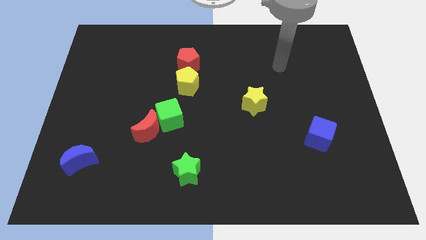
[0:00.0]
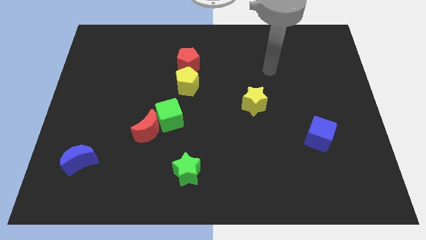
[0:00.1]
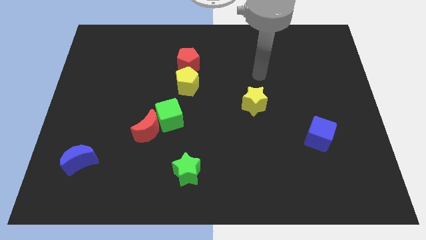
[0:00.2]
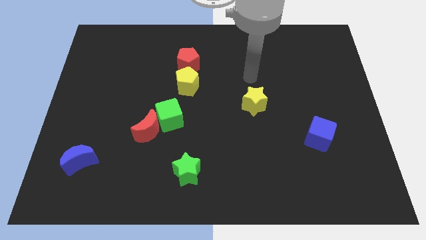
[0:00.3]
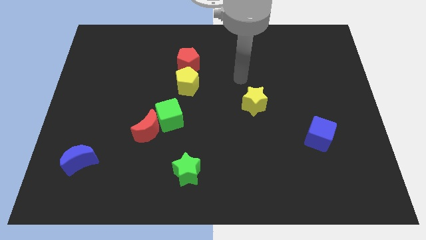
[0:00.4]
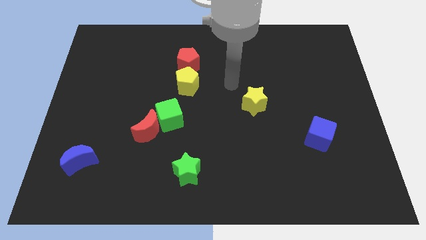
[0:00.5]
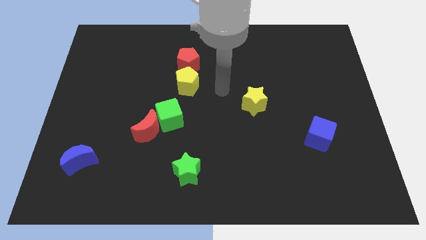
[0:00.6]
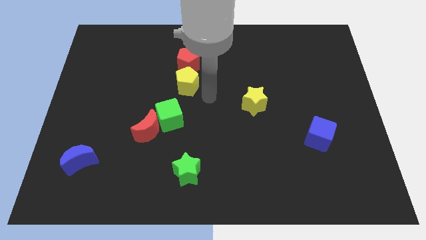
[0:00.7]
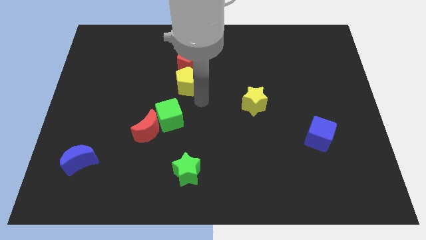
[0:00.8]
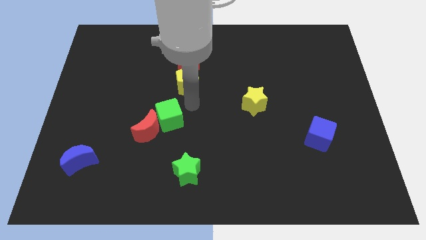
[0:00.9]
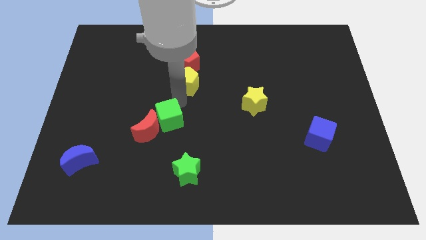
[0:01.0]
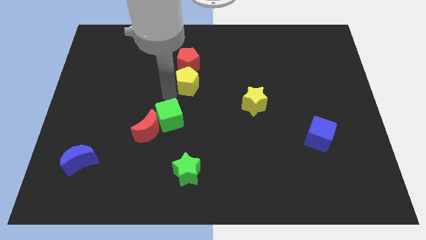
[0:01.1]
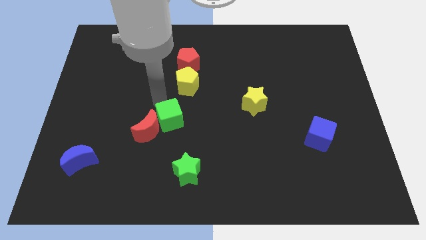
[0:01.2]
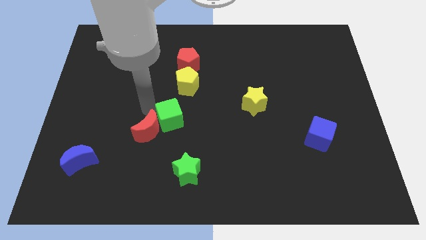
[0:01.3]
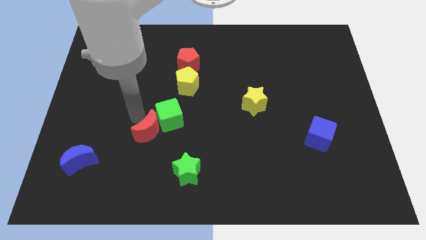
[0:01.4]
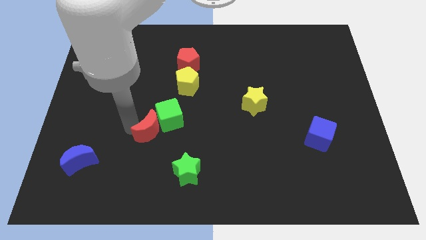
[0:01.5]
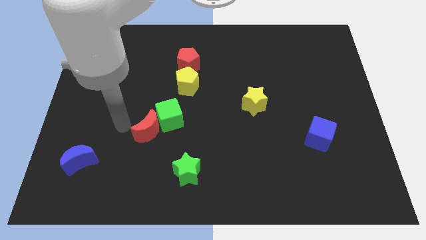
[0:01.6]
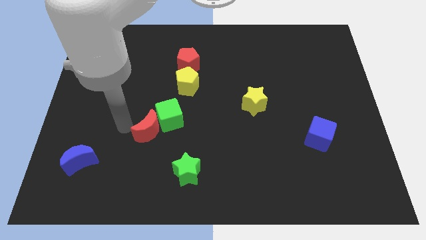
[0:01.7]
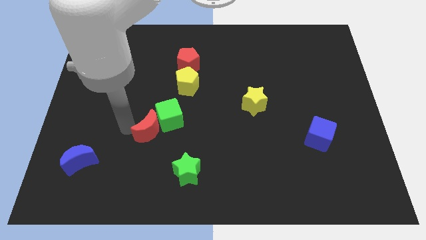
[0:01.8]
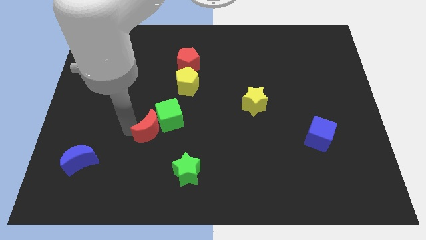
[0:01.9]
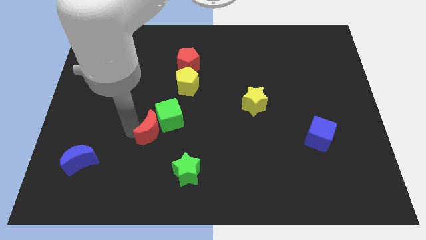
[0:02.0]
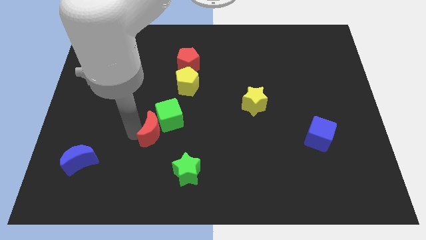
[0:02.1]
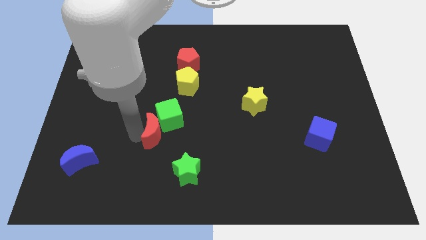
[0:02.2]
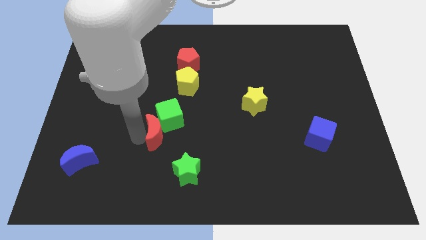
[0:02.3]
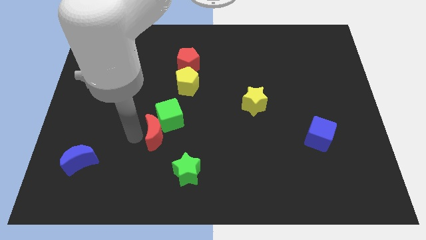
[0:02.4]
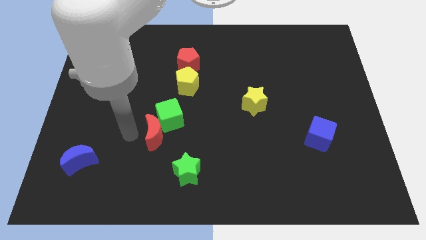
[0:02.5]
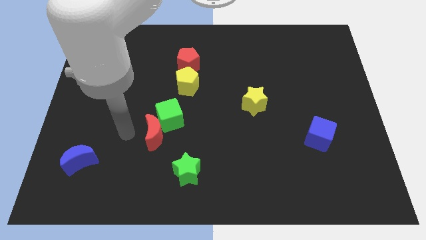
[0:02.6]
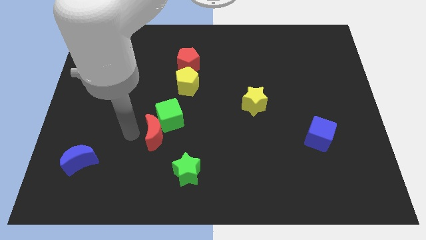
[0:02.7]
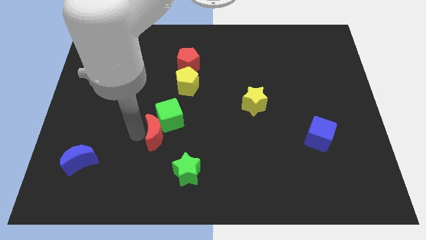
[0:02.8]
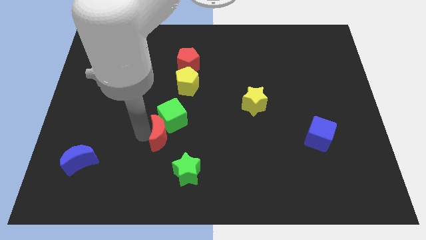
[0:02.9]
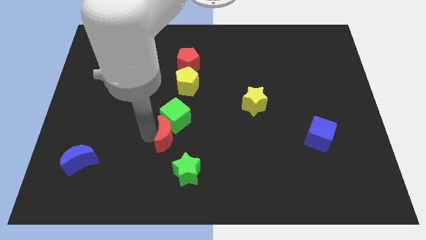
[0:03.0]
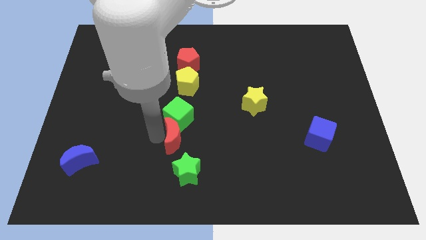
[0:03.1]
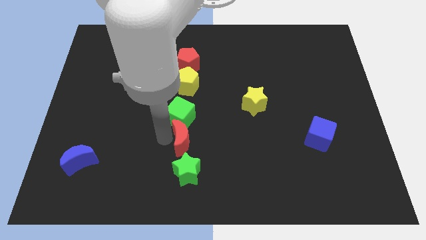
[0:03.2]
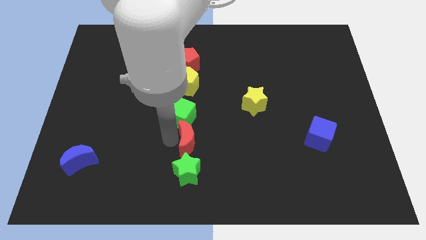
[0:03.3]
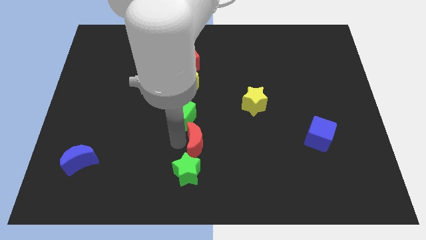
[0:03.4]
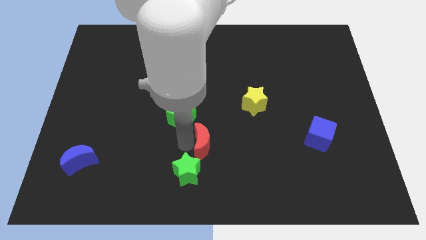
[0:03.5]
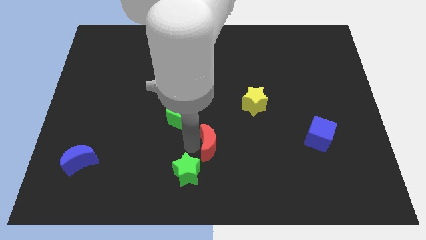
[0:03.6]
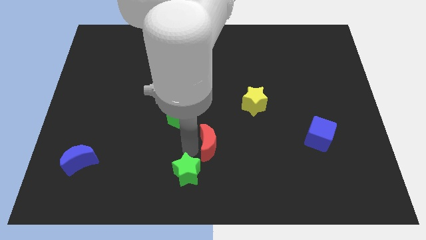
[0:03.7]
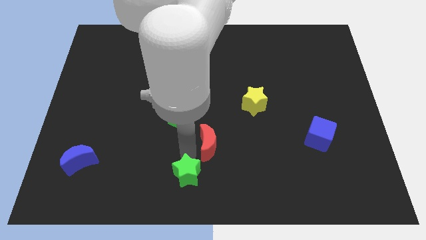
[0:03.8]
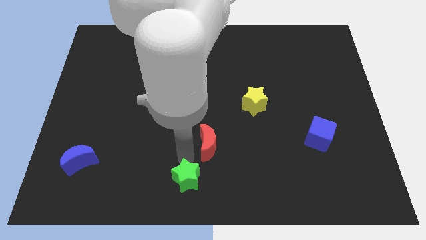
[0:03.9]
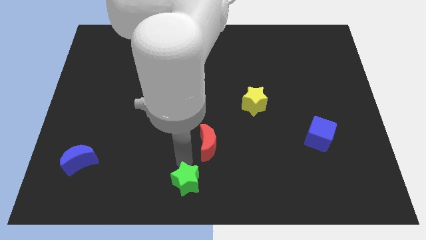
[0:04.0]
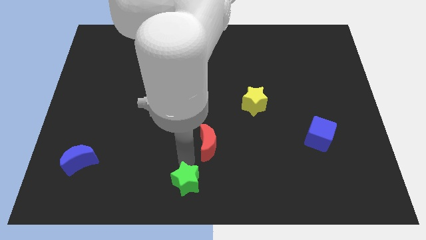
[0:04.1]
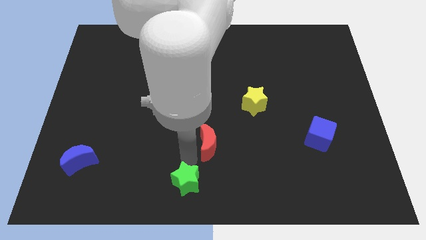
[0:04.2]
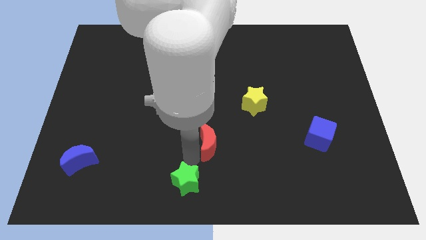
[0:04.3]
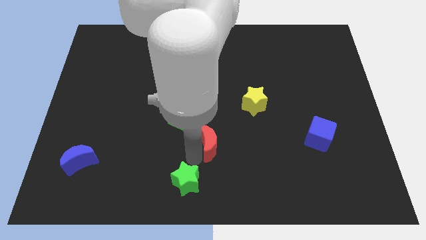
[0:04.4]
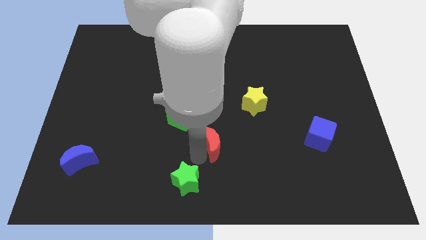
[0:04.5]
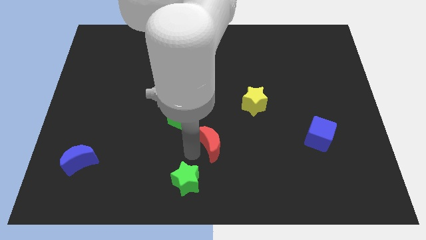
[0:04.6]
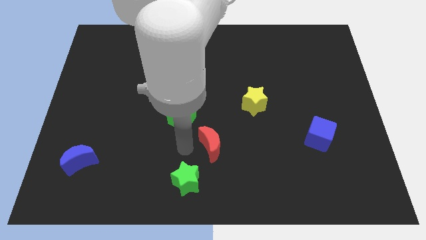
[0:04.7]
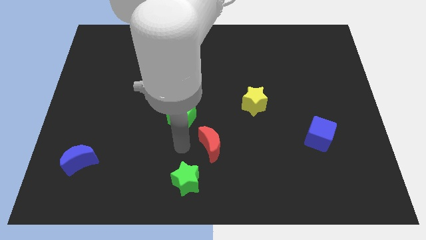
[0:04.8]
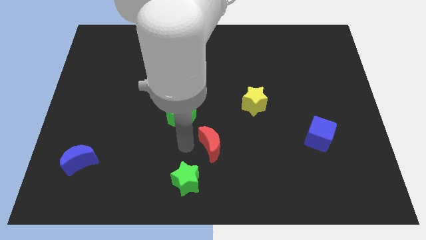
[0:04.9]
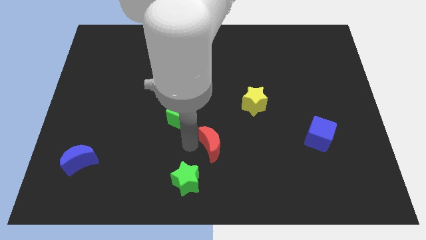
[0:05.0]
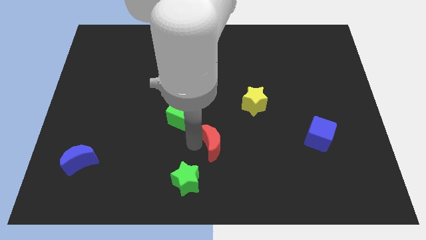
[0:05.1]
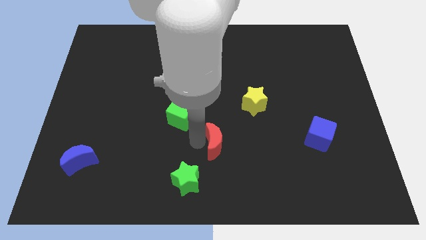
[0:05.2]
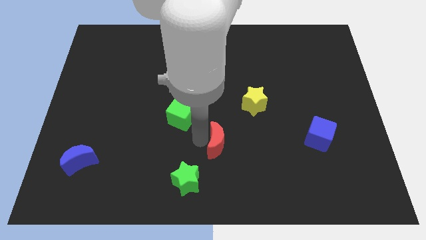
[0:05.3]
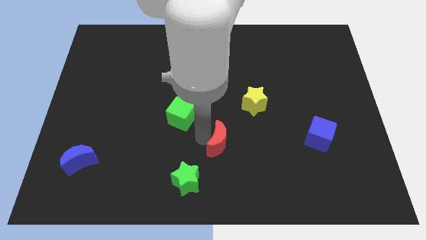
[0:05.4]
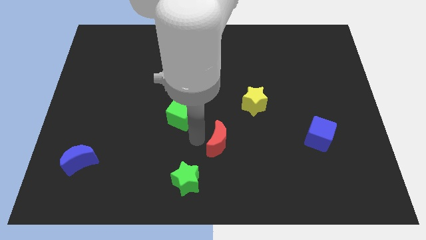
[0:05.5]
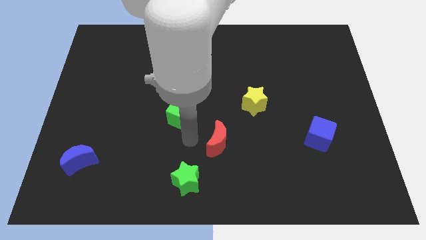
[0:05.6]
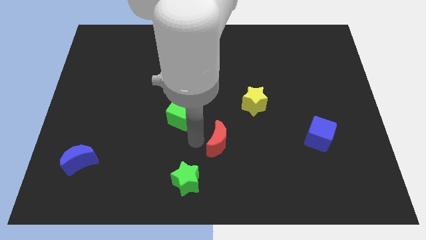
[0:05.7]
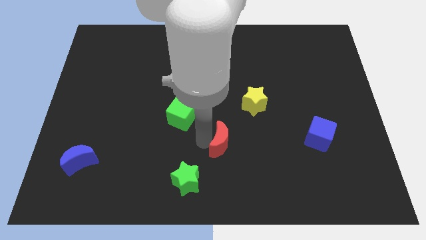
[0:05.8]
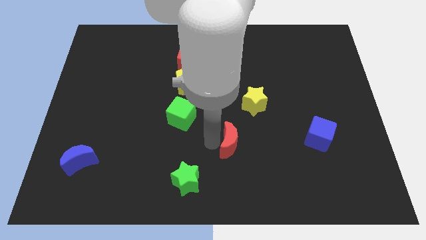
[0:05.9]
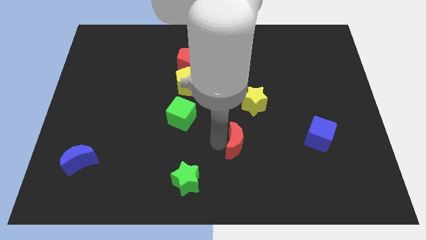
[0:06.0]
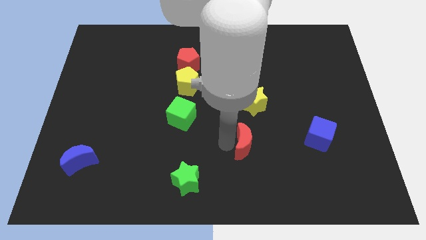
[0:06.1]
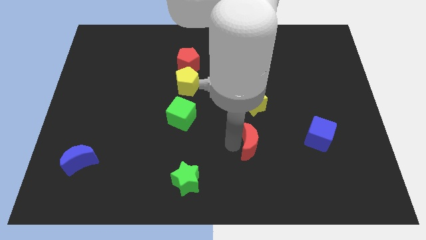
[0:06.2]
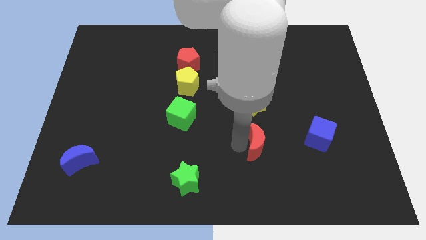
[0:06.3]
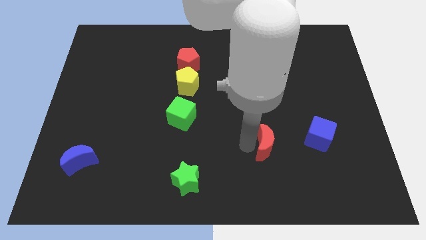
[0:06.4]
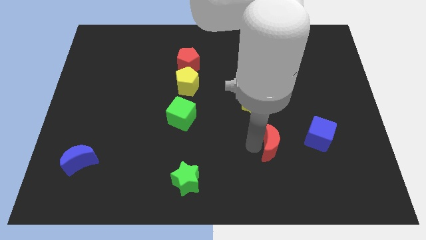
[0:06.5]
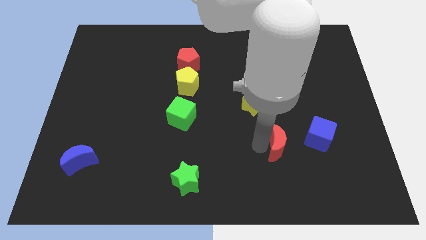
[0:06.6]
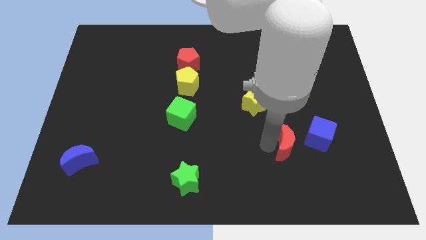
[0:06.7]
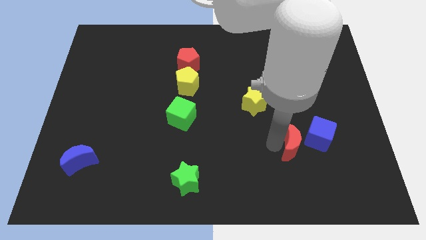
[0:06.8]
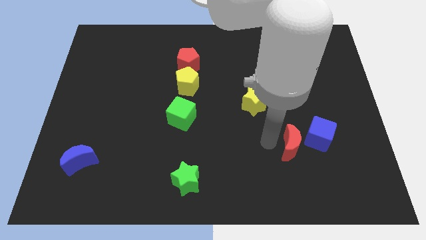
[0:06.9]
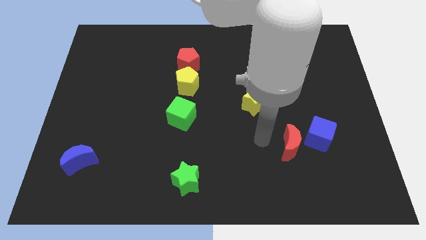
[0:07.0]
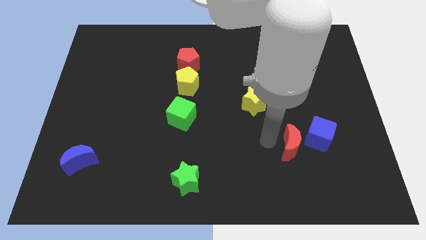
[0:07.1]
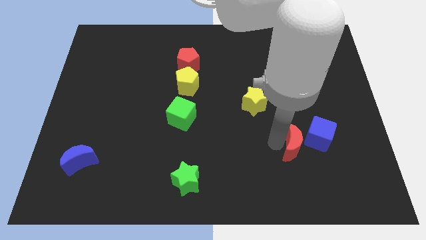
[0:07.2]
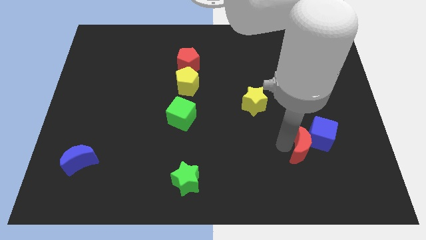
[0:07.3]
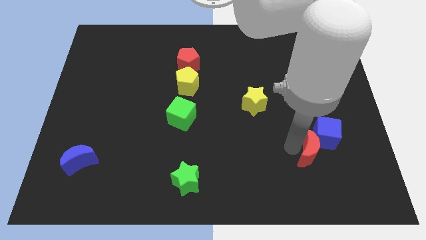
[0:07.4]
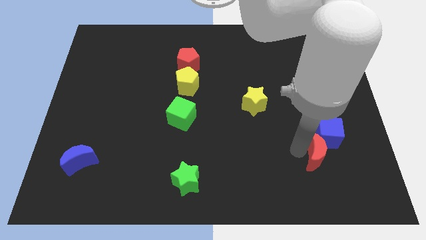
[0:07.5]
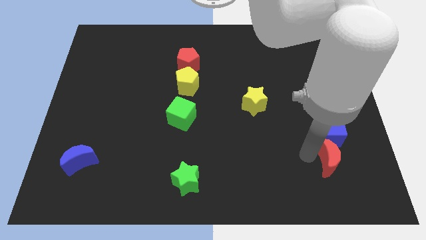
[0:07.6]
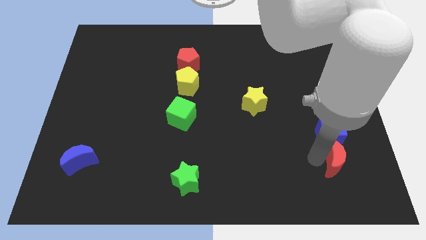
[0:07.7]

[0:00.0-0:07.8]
slide the red moon to the bottom right side of the blue cube
